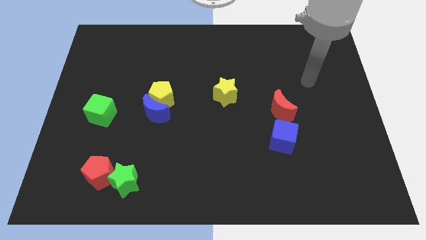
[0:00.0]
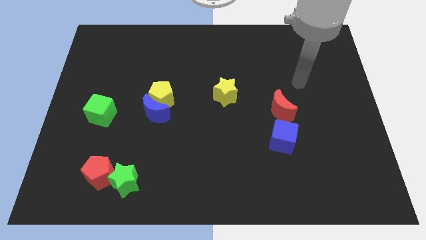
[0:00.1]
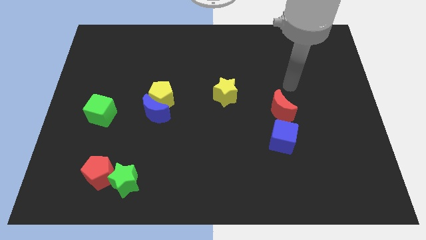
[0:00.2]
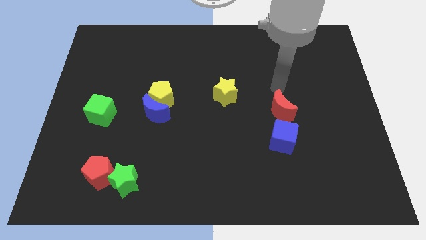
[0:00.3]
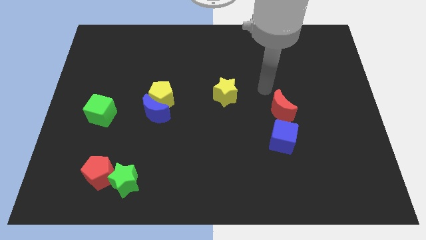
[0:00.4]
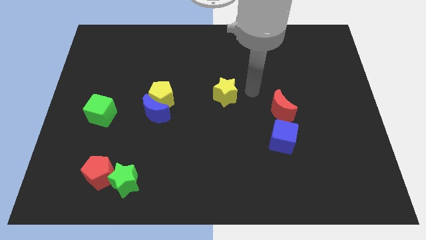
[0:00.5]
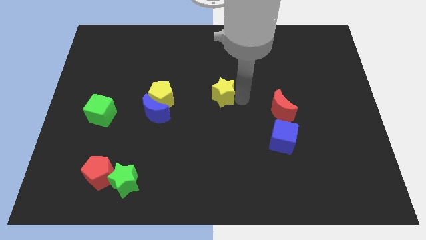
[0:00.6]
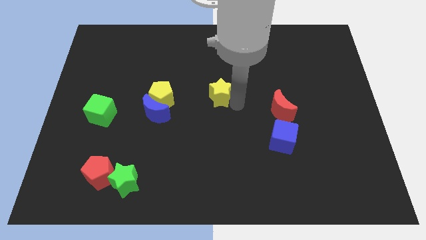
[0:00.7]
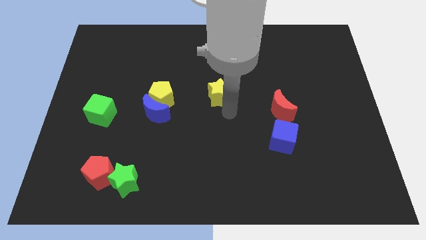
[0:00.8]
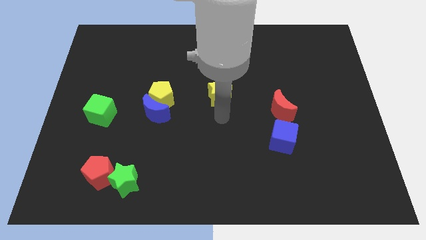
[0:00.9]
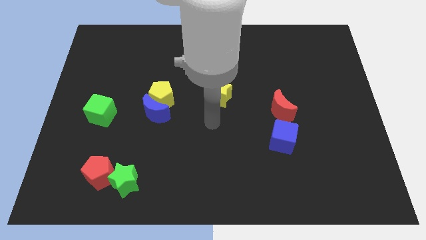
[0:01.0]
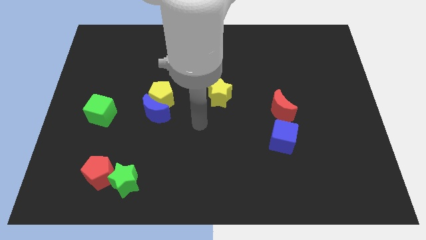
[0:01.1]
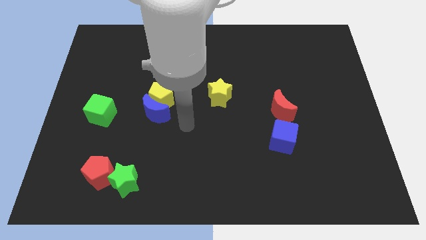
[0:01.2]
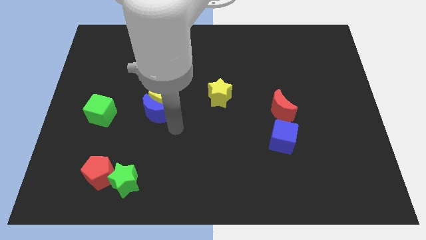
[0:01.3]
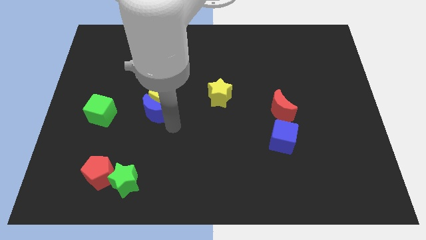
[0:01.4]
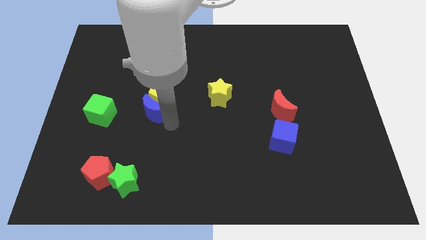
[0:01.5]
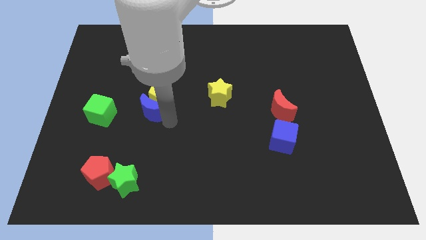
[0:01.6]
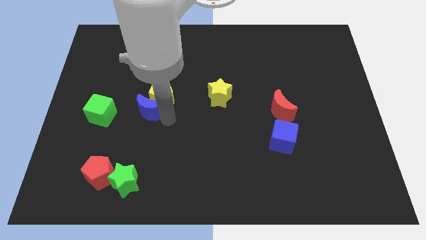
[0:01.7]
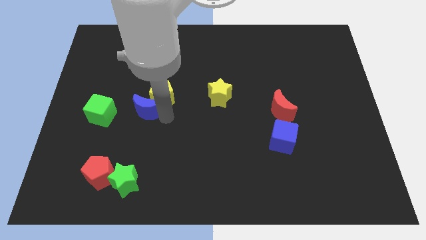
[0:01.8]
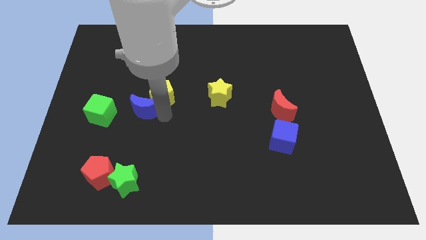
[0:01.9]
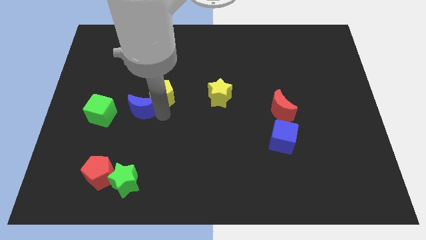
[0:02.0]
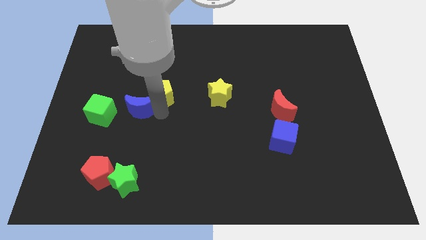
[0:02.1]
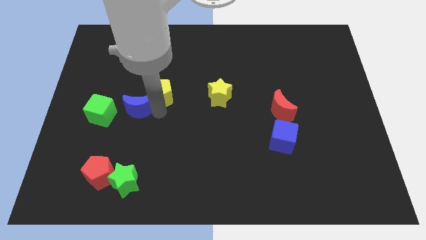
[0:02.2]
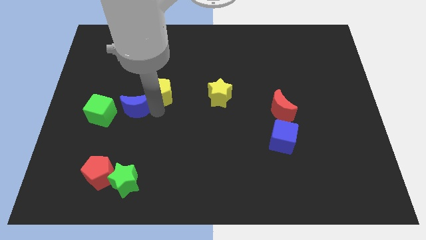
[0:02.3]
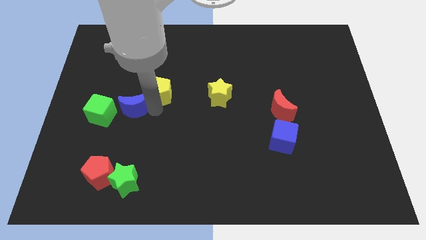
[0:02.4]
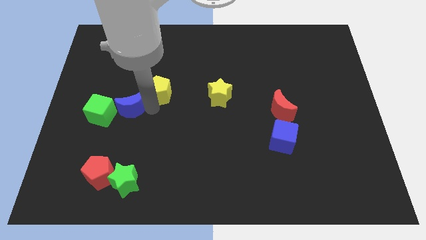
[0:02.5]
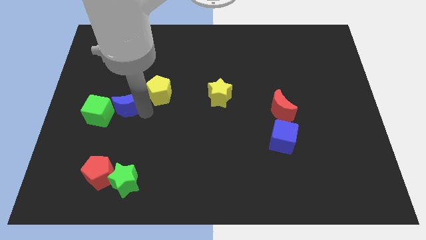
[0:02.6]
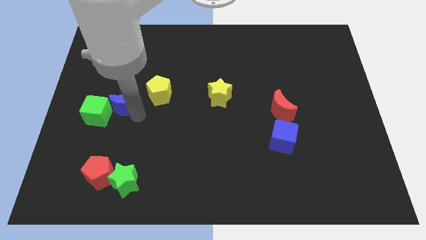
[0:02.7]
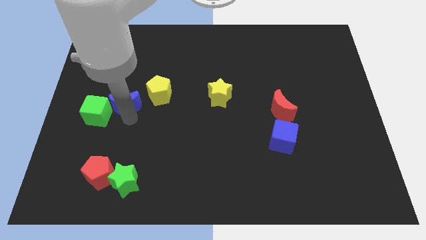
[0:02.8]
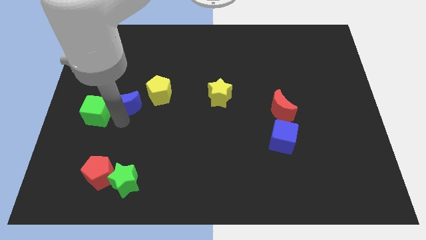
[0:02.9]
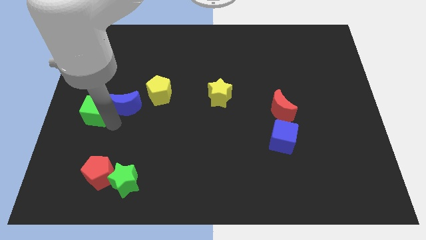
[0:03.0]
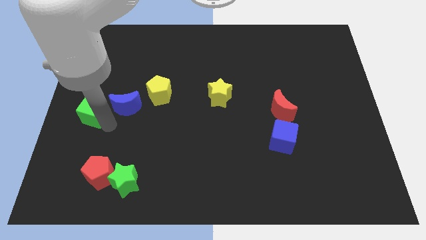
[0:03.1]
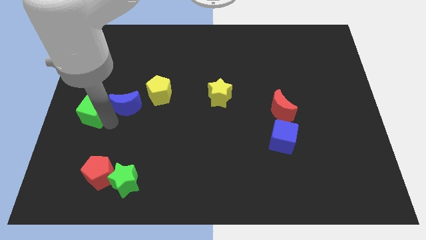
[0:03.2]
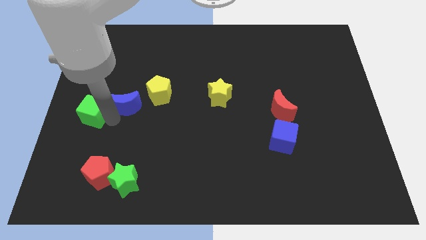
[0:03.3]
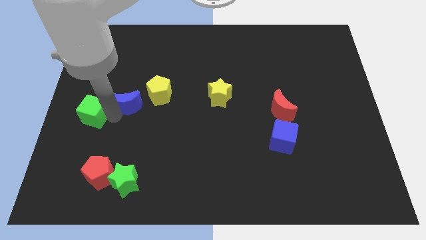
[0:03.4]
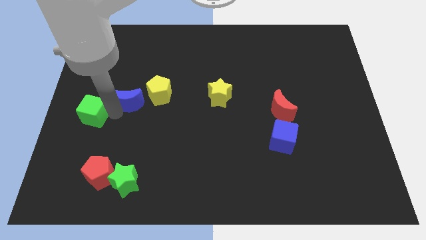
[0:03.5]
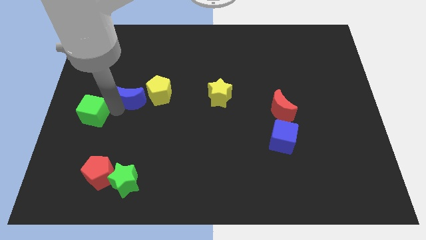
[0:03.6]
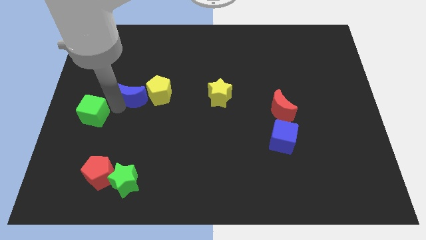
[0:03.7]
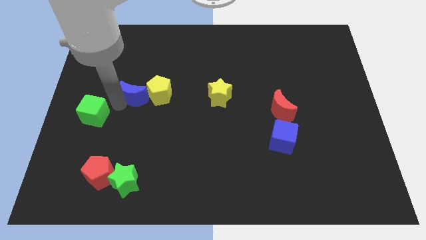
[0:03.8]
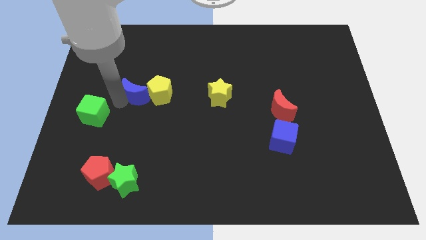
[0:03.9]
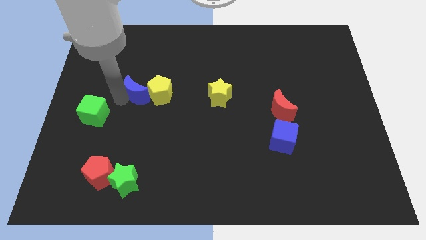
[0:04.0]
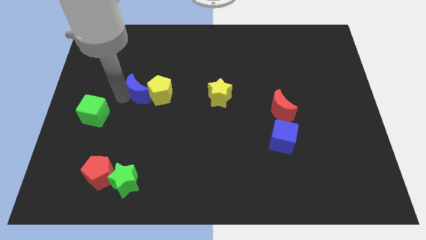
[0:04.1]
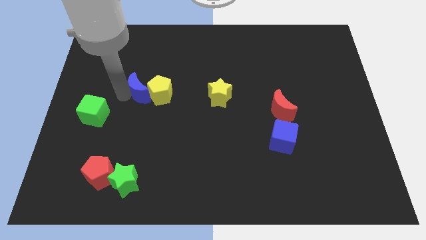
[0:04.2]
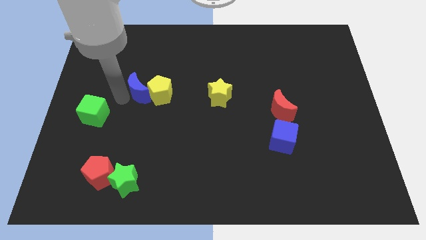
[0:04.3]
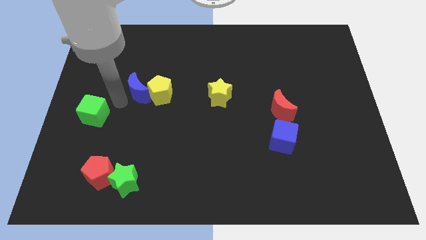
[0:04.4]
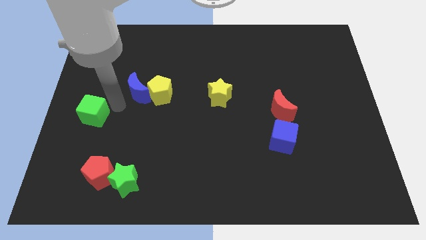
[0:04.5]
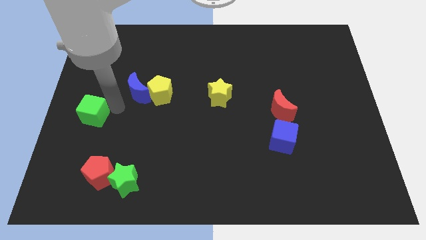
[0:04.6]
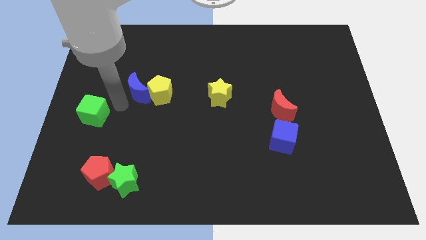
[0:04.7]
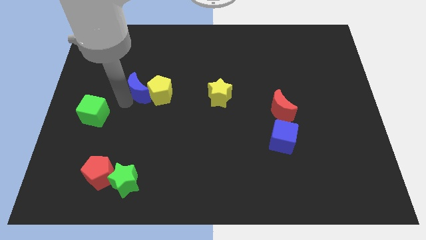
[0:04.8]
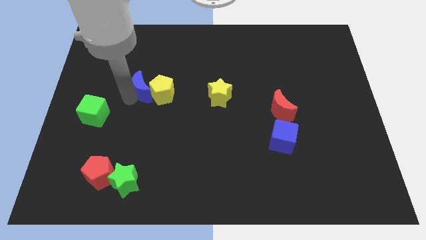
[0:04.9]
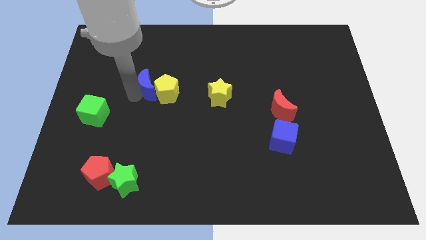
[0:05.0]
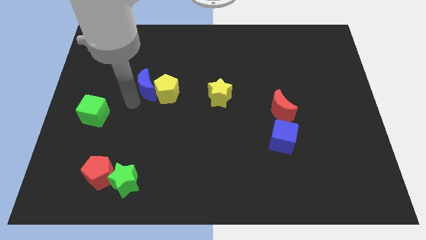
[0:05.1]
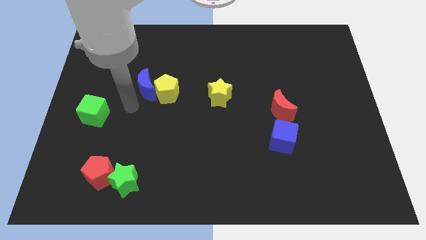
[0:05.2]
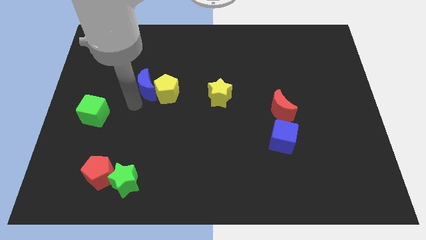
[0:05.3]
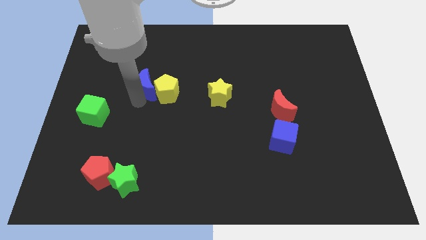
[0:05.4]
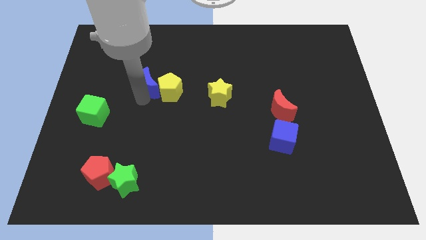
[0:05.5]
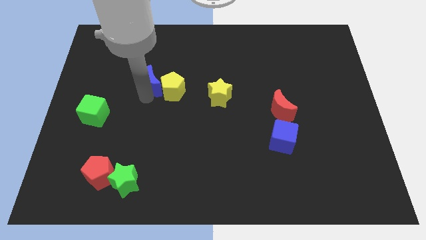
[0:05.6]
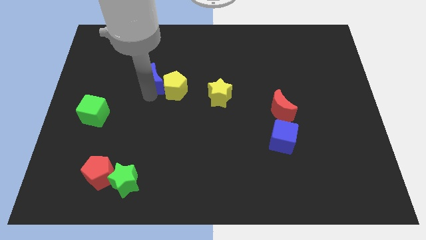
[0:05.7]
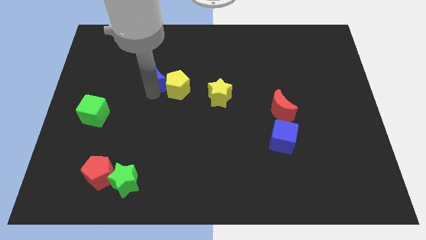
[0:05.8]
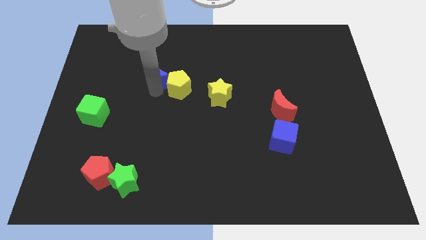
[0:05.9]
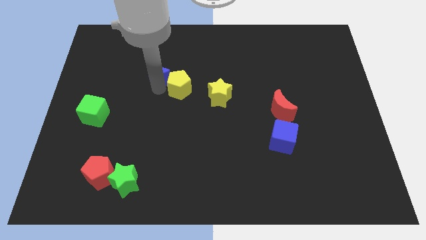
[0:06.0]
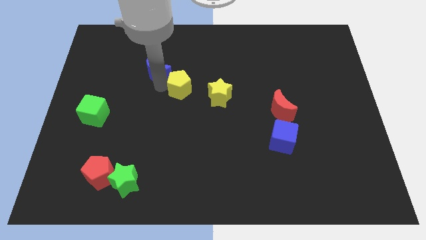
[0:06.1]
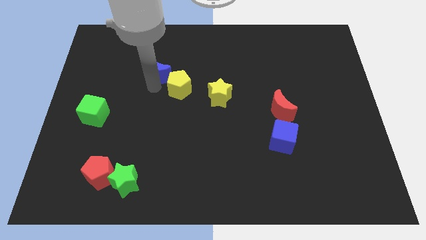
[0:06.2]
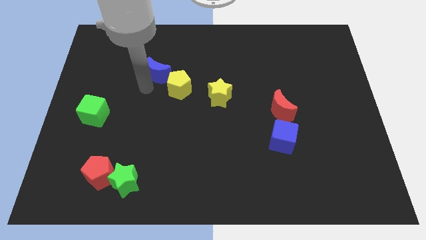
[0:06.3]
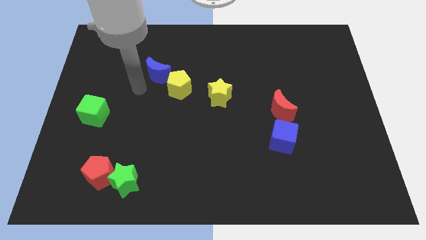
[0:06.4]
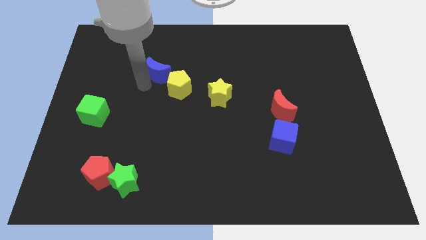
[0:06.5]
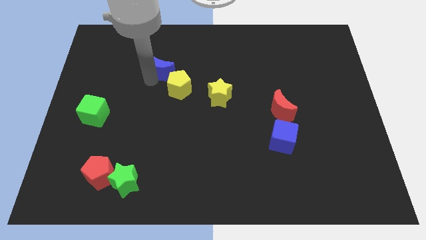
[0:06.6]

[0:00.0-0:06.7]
push the blue moon to the top side of the yellow pentagon

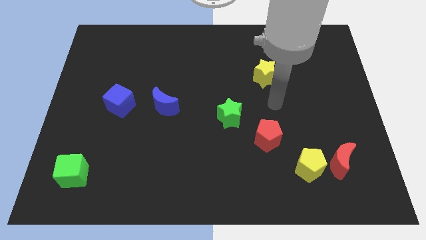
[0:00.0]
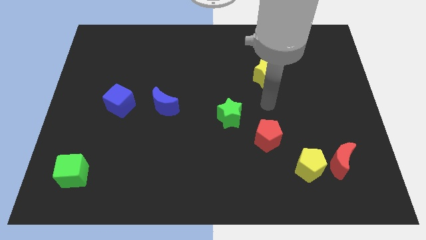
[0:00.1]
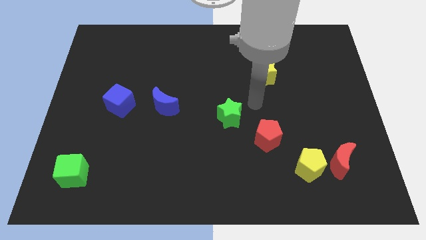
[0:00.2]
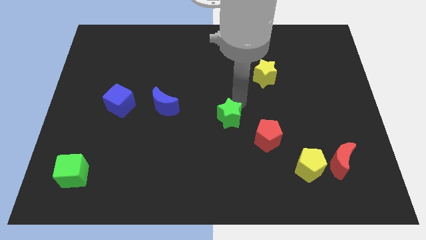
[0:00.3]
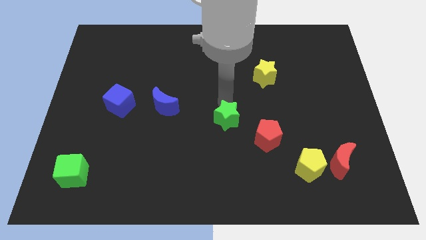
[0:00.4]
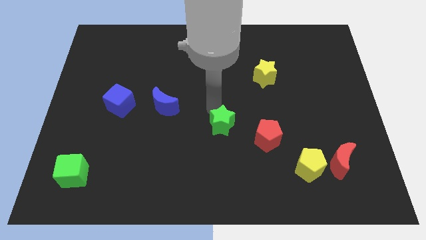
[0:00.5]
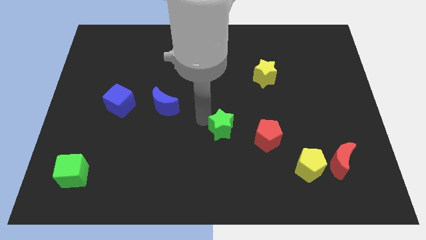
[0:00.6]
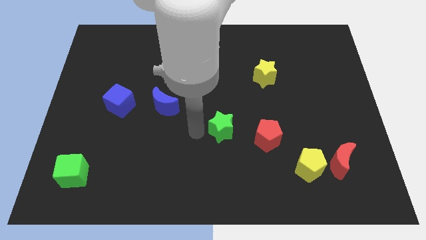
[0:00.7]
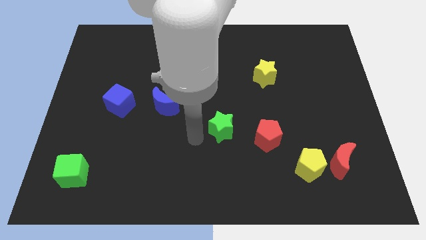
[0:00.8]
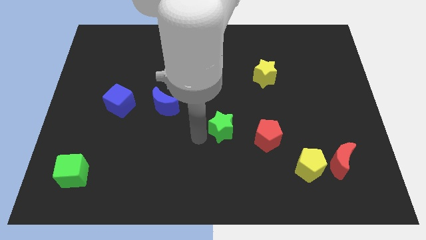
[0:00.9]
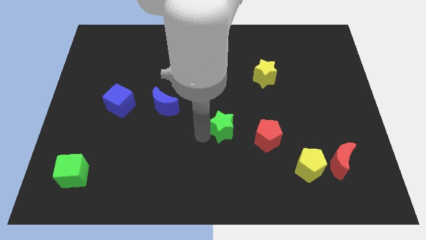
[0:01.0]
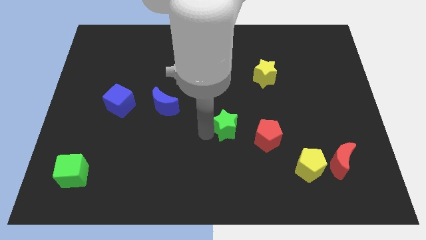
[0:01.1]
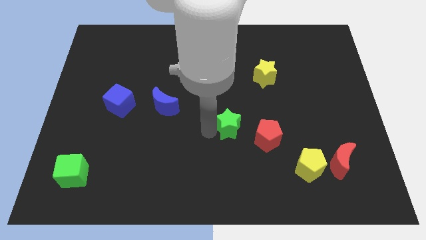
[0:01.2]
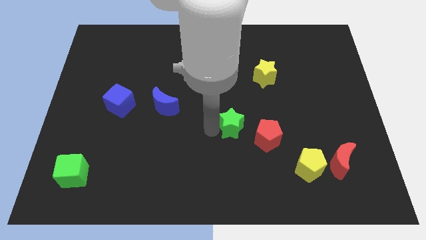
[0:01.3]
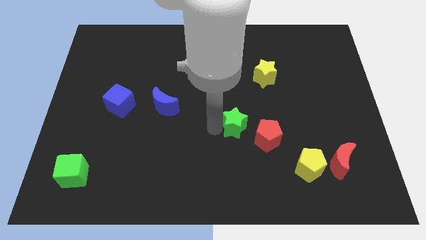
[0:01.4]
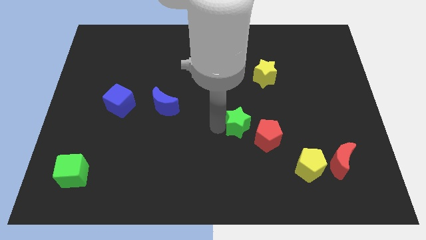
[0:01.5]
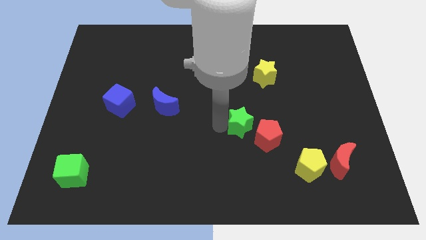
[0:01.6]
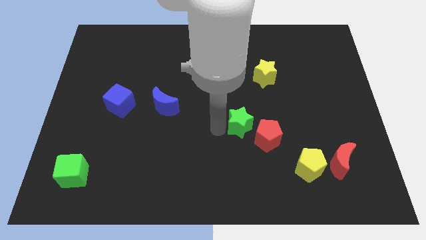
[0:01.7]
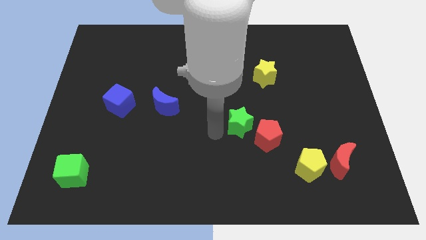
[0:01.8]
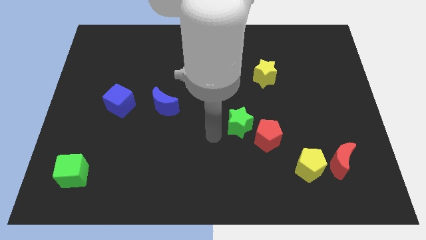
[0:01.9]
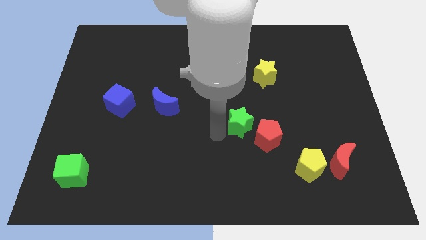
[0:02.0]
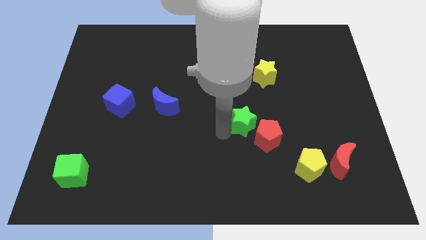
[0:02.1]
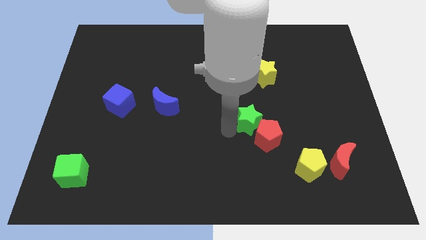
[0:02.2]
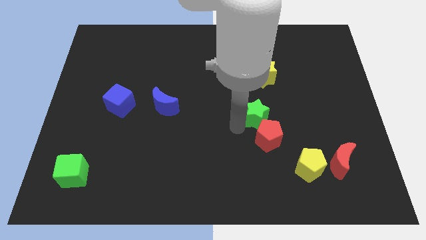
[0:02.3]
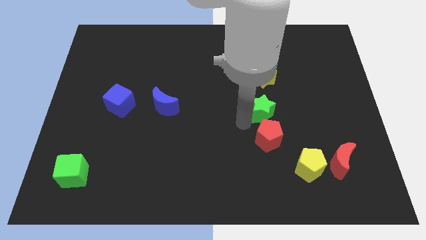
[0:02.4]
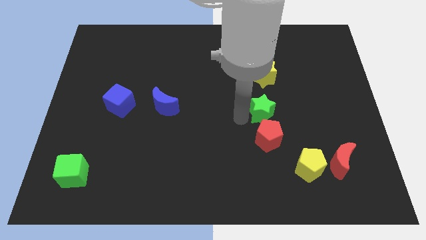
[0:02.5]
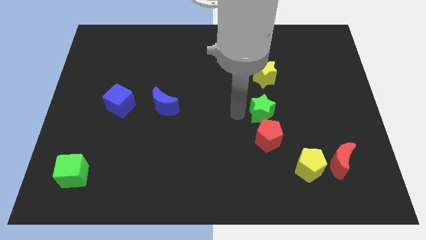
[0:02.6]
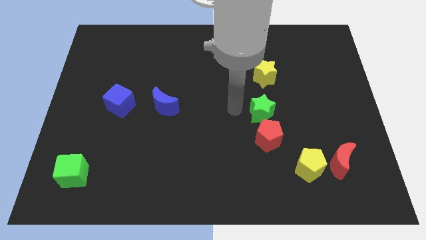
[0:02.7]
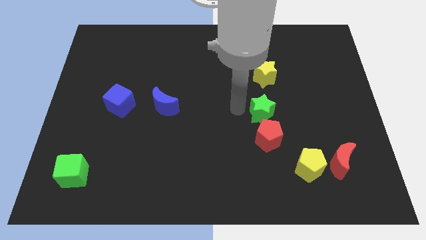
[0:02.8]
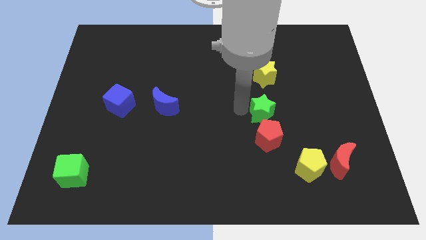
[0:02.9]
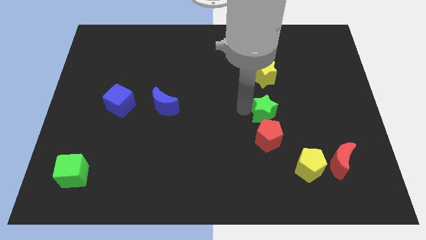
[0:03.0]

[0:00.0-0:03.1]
slide the green star diagonally up and to the right of the red pentagon
